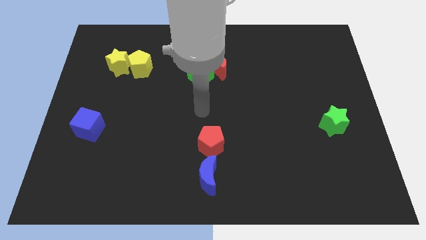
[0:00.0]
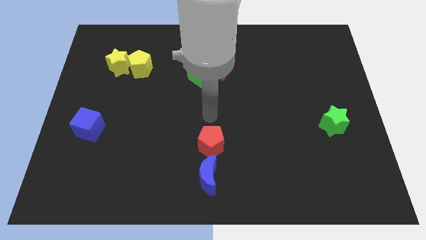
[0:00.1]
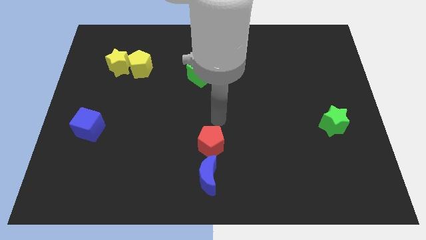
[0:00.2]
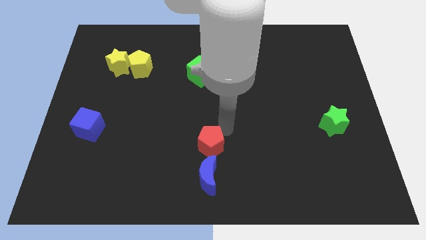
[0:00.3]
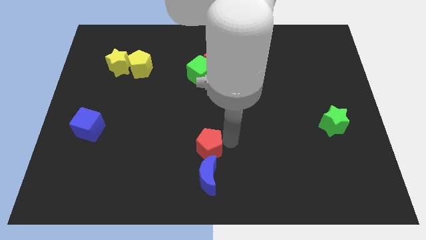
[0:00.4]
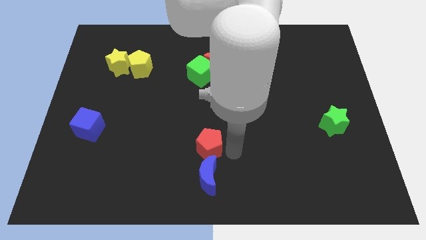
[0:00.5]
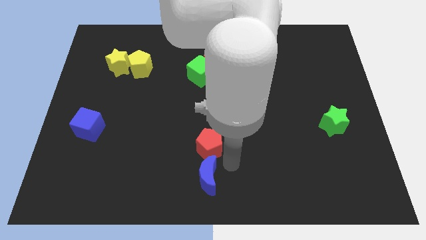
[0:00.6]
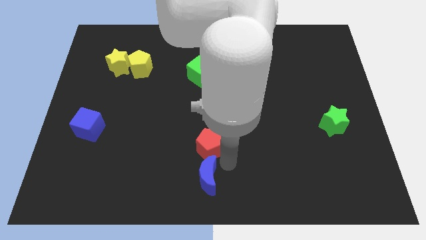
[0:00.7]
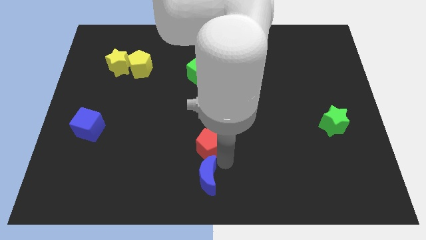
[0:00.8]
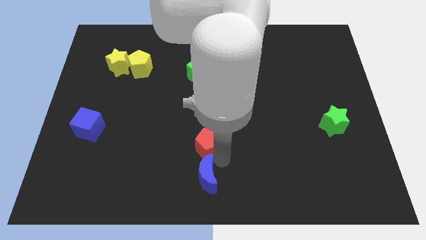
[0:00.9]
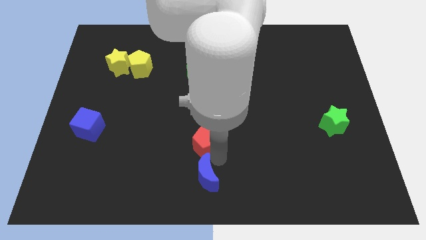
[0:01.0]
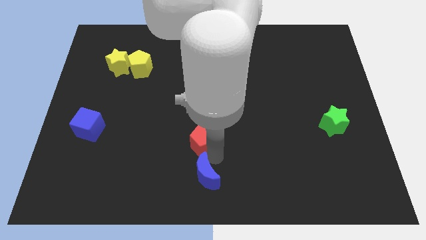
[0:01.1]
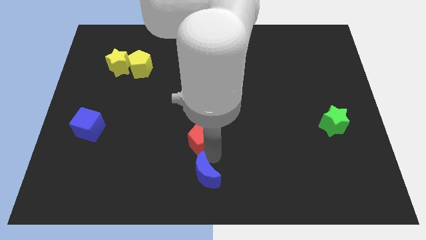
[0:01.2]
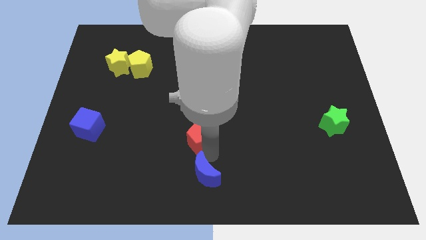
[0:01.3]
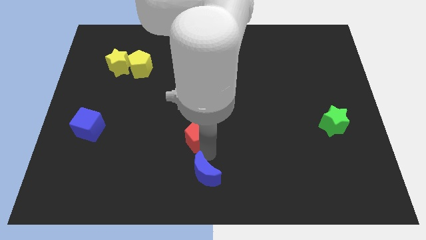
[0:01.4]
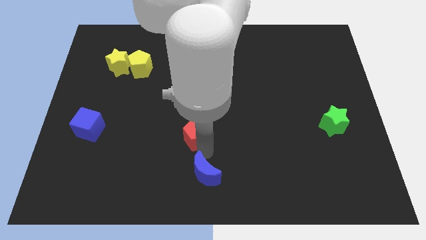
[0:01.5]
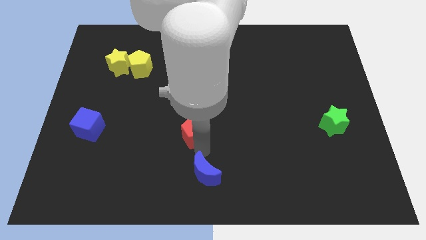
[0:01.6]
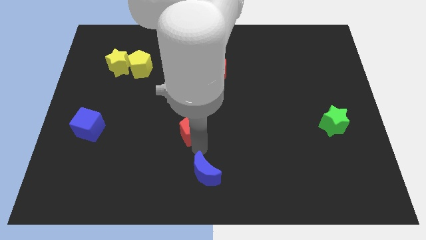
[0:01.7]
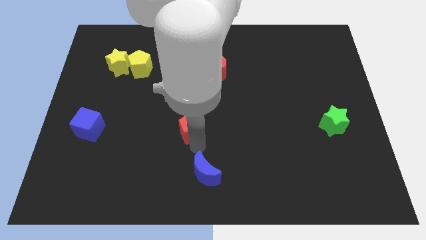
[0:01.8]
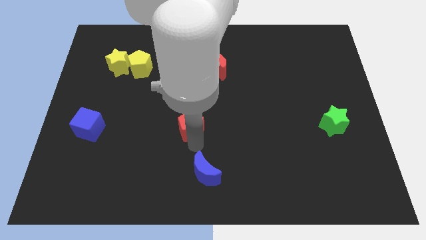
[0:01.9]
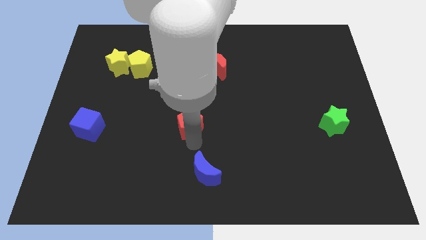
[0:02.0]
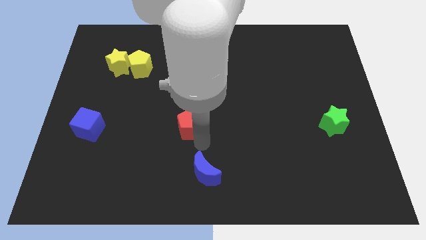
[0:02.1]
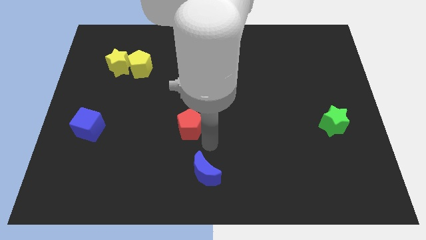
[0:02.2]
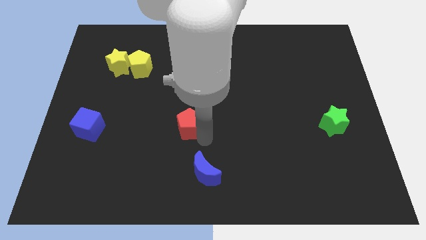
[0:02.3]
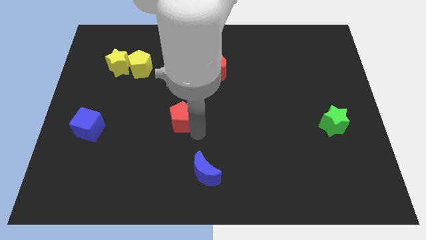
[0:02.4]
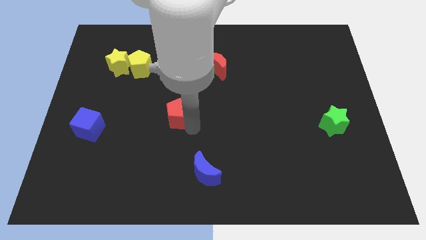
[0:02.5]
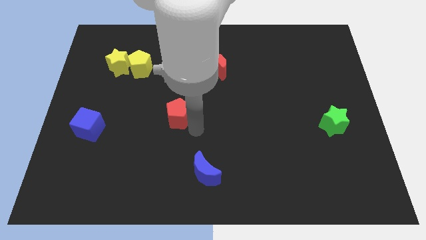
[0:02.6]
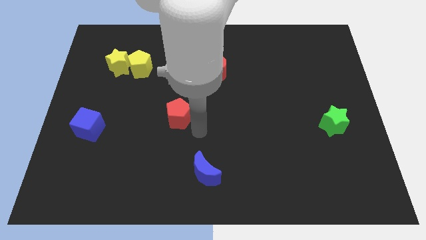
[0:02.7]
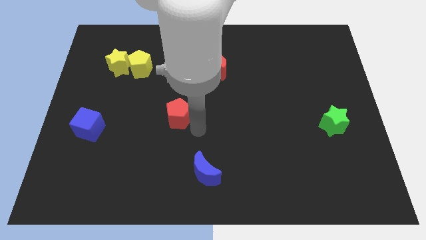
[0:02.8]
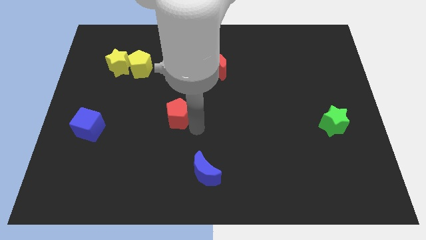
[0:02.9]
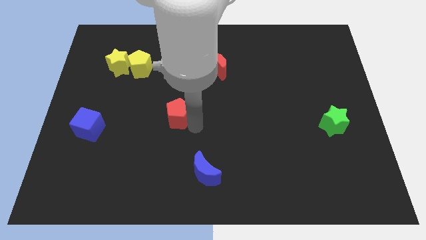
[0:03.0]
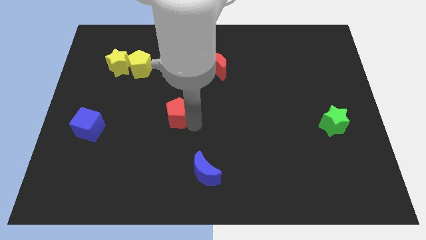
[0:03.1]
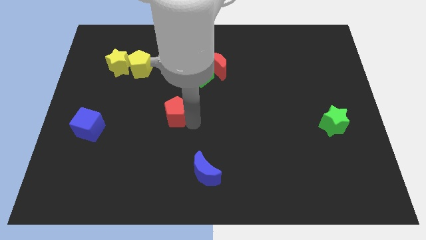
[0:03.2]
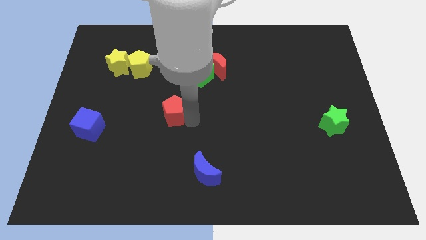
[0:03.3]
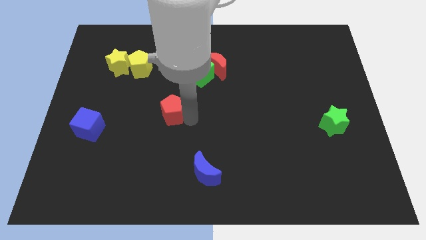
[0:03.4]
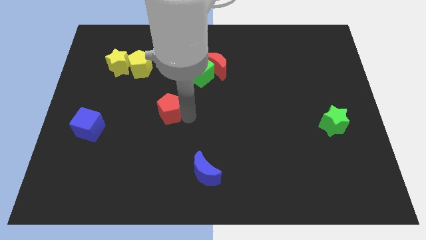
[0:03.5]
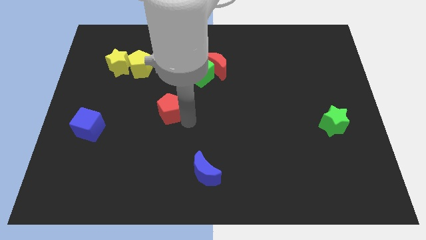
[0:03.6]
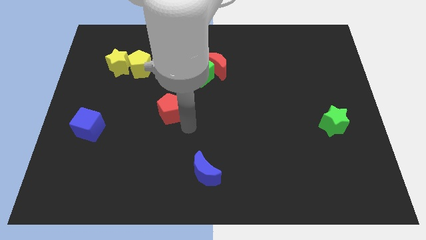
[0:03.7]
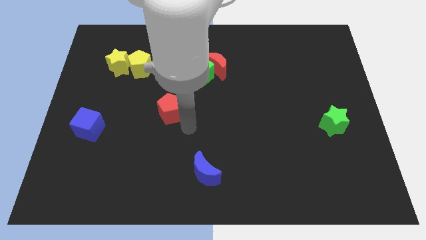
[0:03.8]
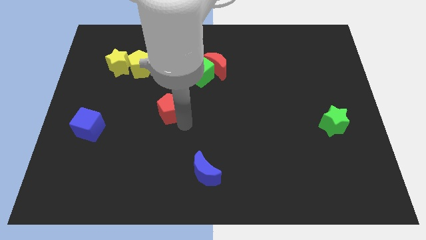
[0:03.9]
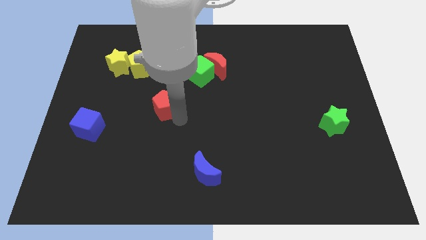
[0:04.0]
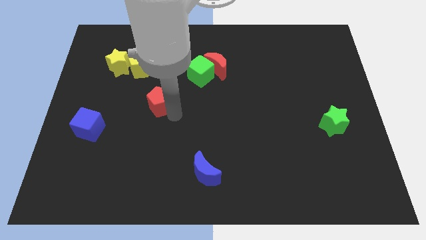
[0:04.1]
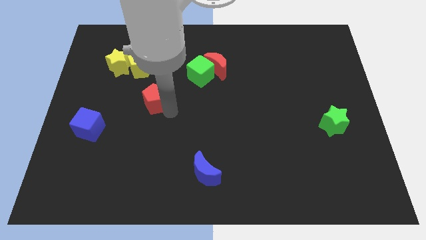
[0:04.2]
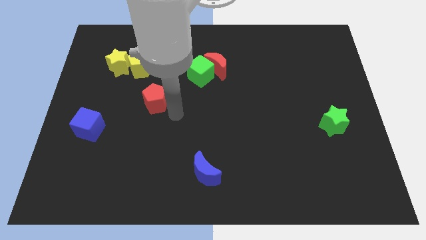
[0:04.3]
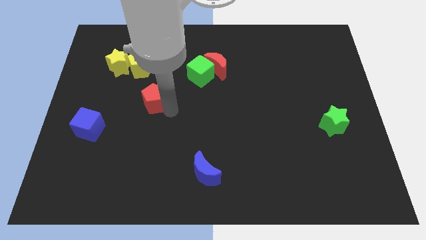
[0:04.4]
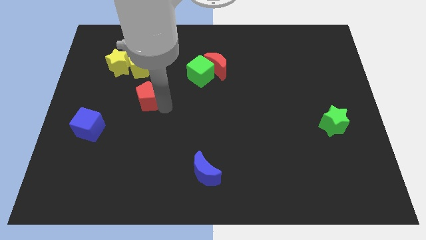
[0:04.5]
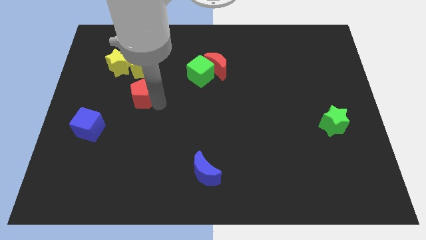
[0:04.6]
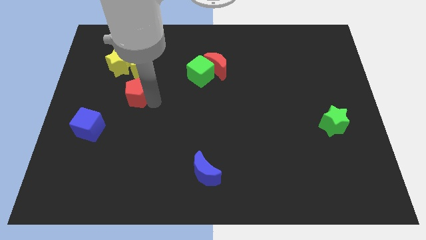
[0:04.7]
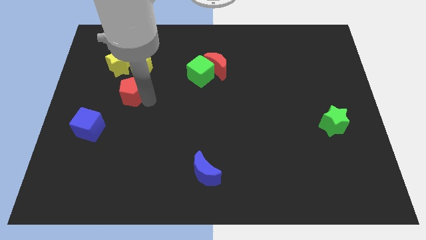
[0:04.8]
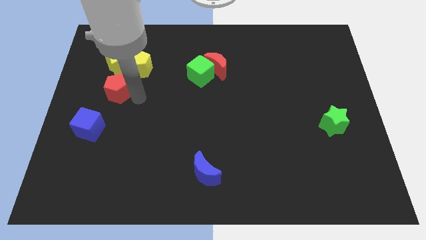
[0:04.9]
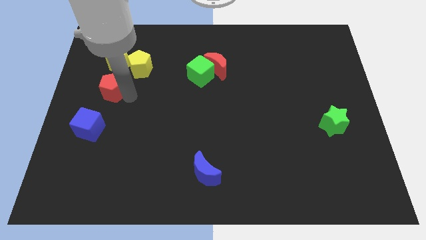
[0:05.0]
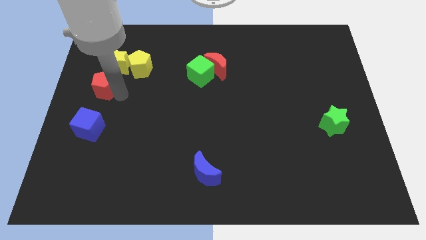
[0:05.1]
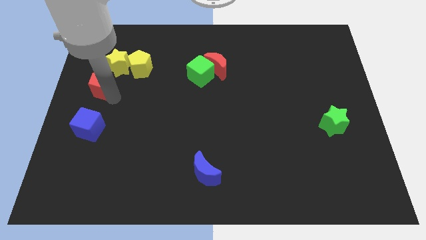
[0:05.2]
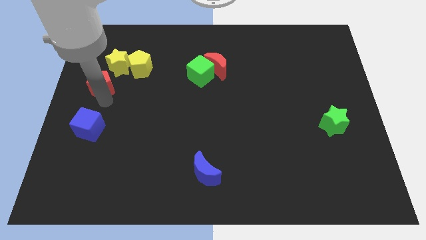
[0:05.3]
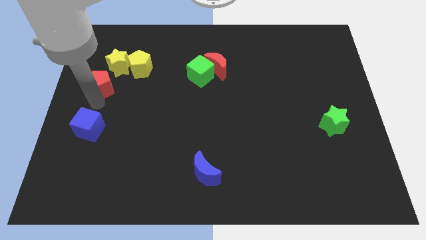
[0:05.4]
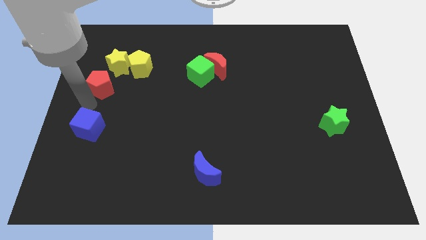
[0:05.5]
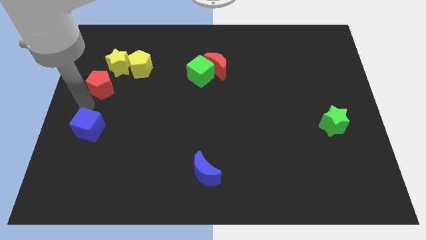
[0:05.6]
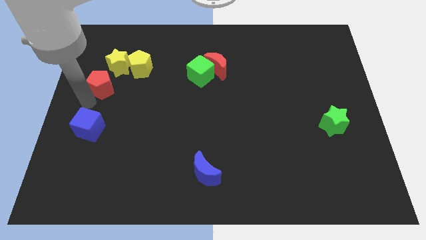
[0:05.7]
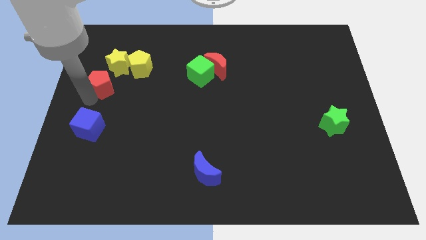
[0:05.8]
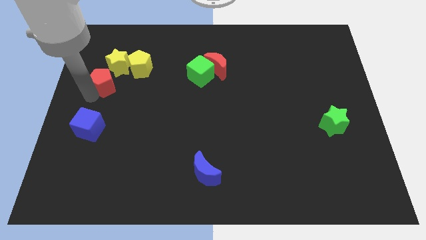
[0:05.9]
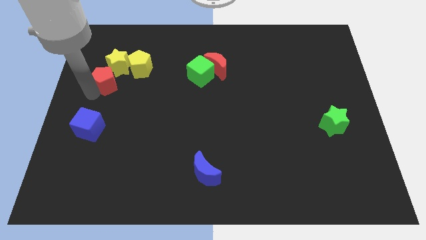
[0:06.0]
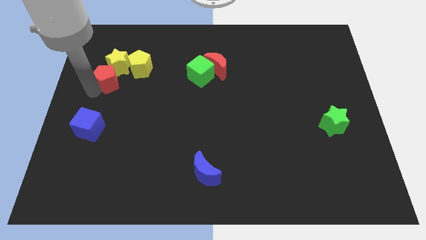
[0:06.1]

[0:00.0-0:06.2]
push the red pentagon next to the yellow star
